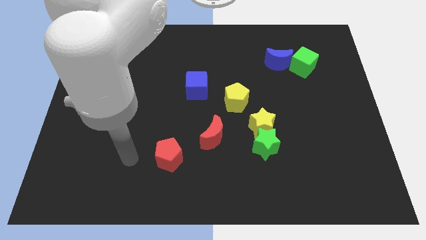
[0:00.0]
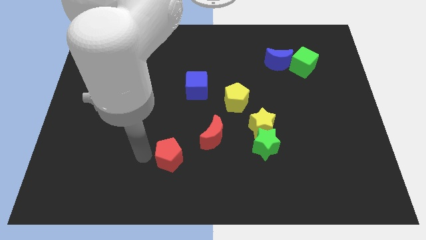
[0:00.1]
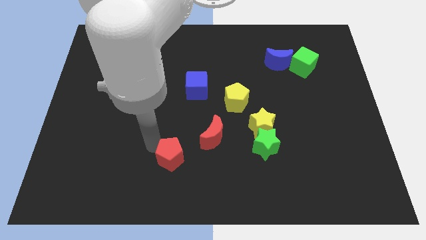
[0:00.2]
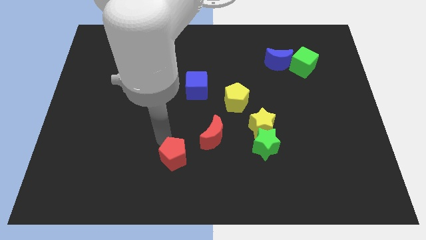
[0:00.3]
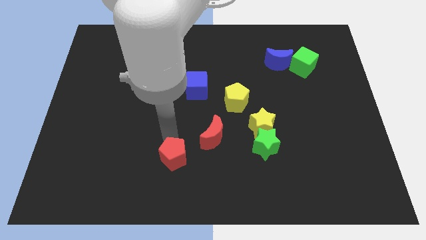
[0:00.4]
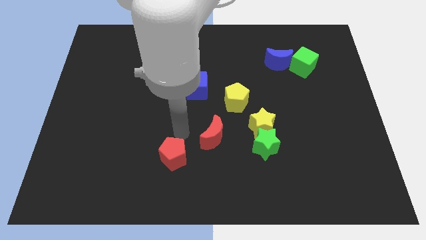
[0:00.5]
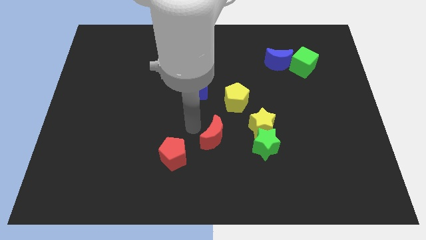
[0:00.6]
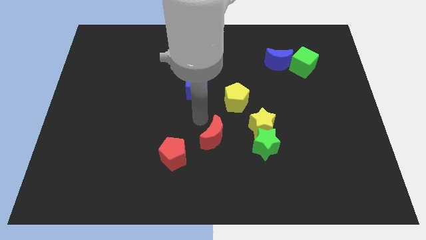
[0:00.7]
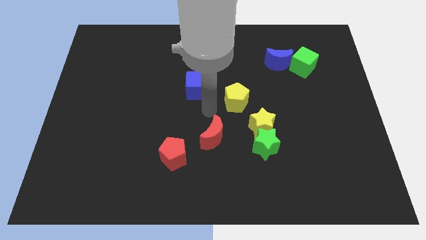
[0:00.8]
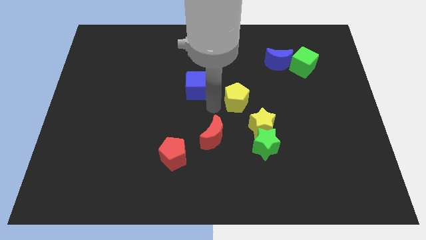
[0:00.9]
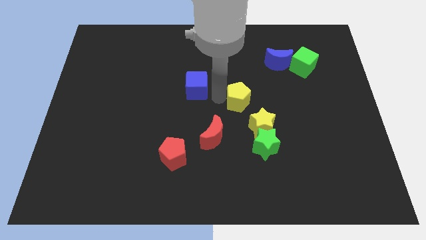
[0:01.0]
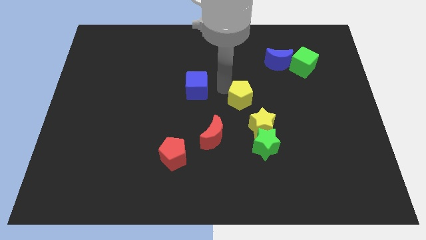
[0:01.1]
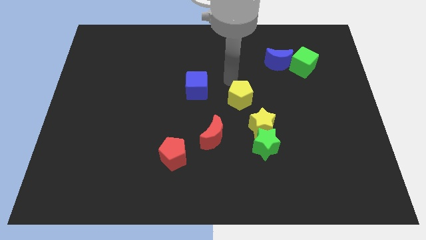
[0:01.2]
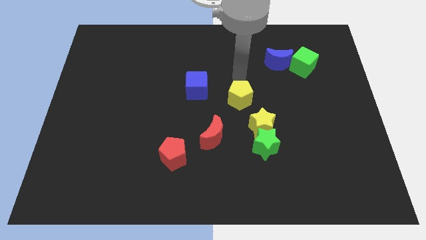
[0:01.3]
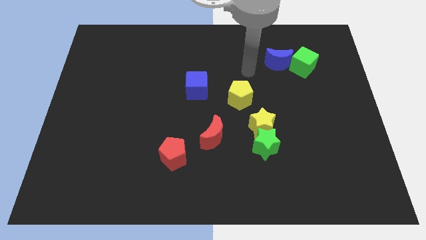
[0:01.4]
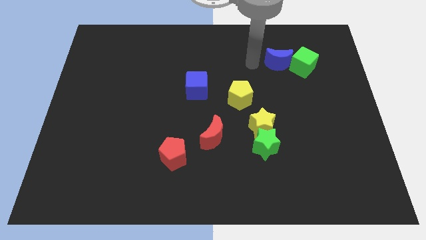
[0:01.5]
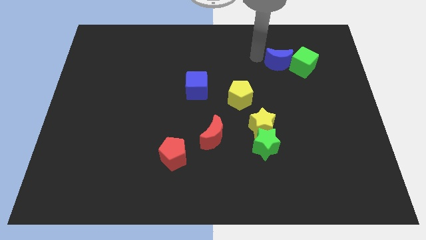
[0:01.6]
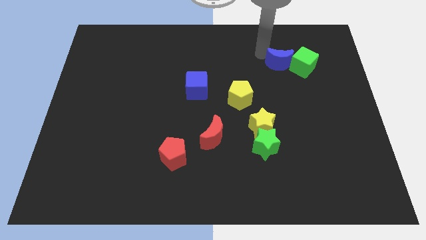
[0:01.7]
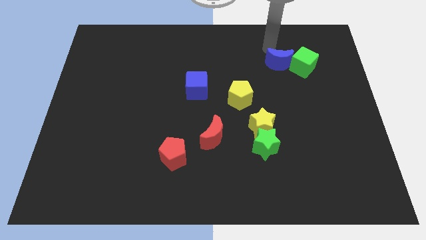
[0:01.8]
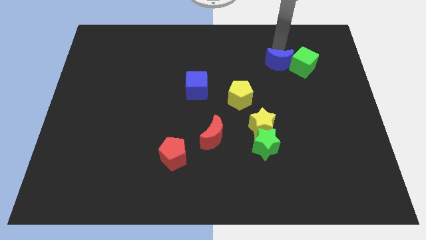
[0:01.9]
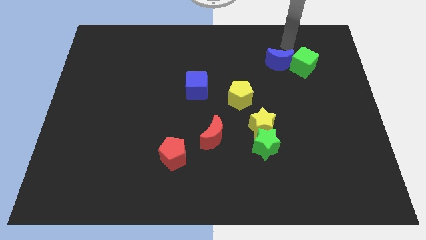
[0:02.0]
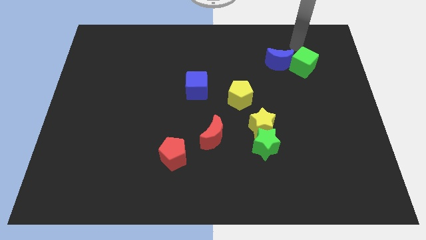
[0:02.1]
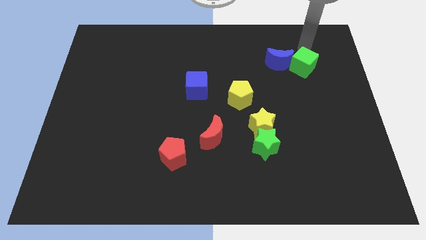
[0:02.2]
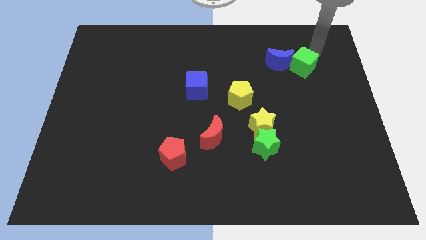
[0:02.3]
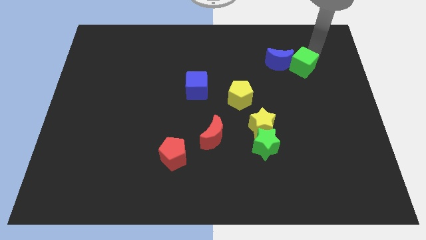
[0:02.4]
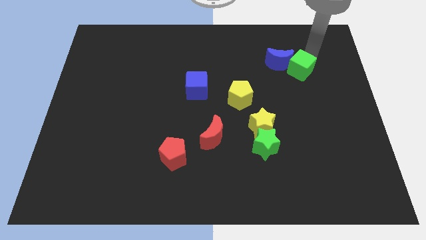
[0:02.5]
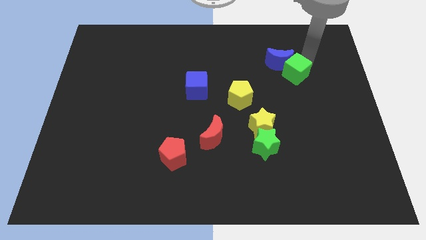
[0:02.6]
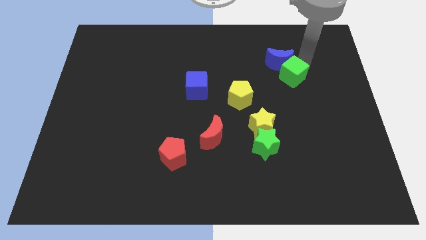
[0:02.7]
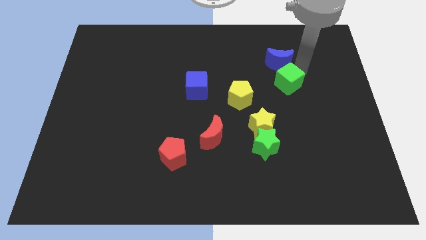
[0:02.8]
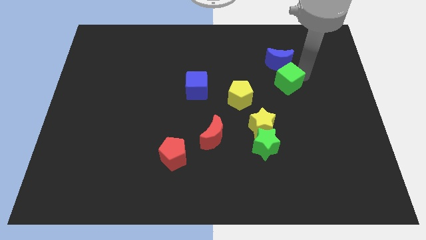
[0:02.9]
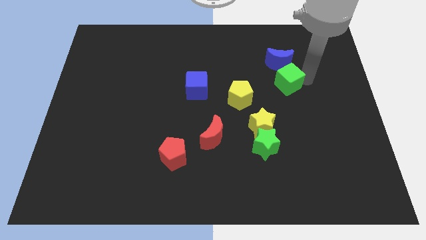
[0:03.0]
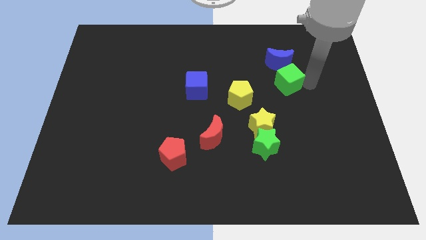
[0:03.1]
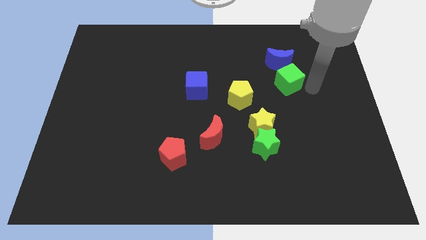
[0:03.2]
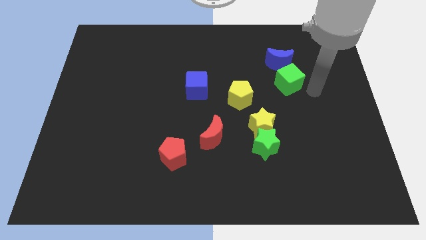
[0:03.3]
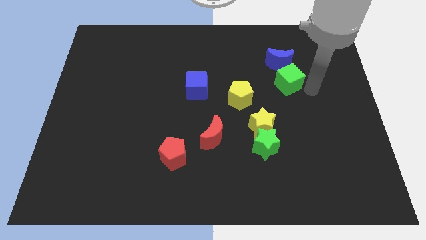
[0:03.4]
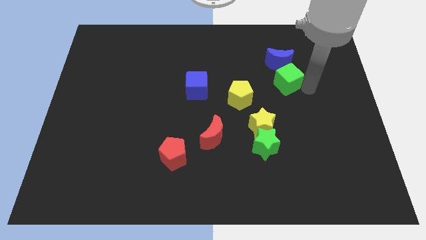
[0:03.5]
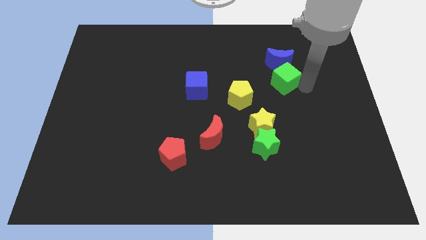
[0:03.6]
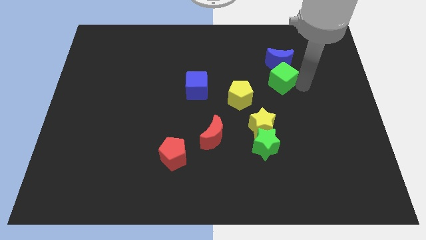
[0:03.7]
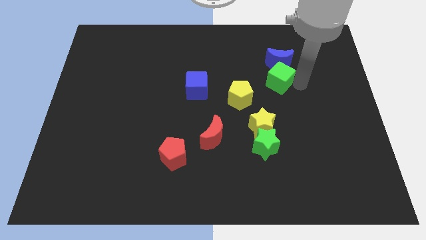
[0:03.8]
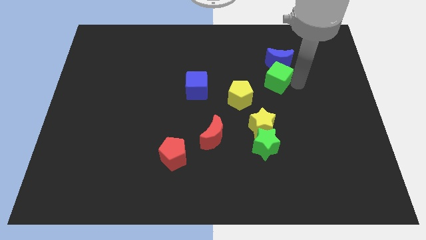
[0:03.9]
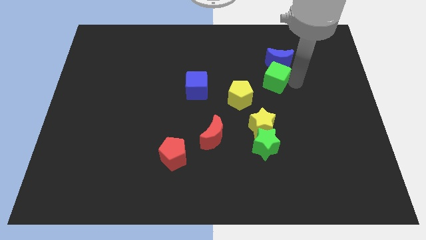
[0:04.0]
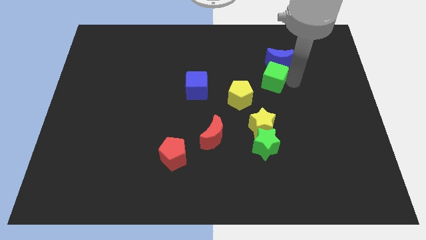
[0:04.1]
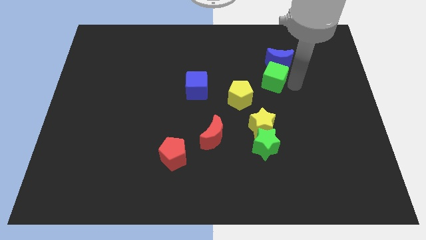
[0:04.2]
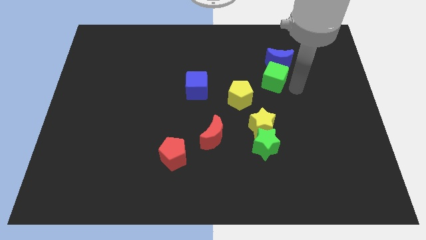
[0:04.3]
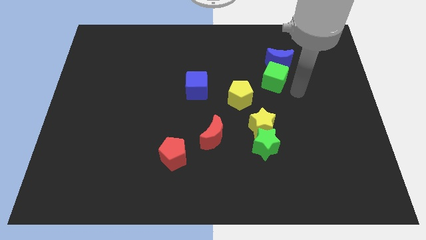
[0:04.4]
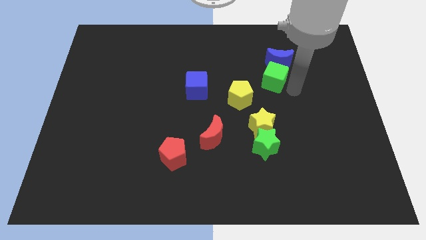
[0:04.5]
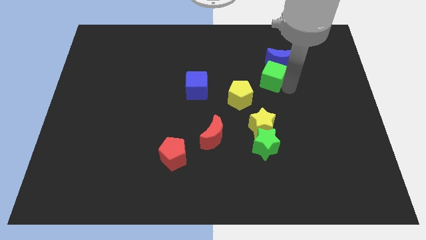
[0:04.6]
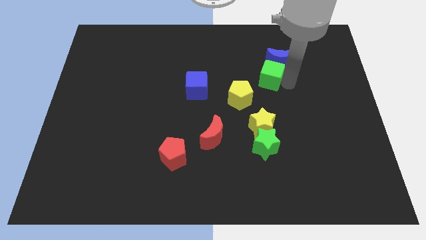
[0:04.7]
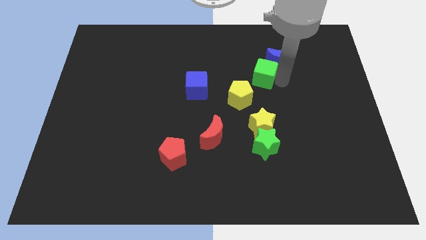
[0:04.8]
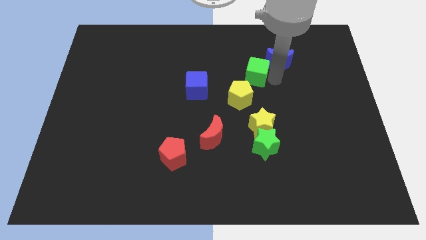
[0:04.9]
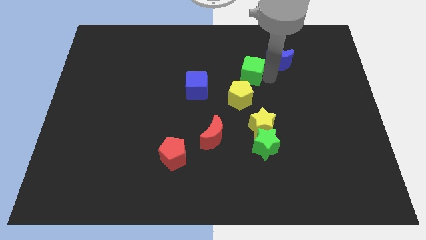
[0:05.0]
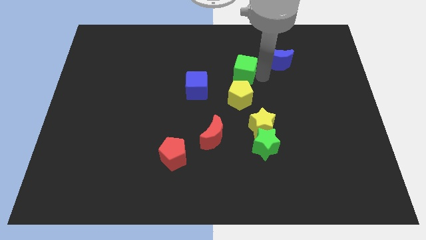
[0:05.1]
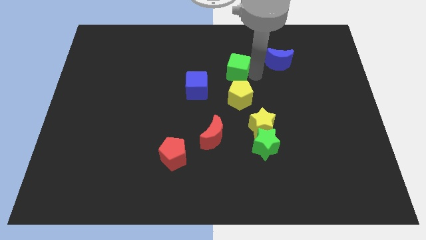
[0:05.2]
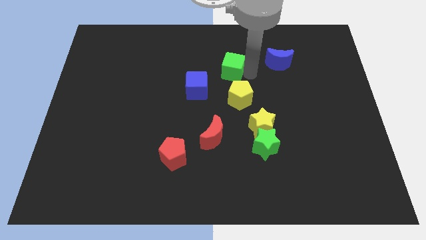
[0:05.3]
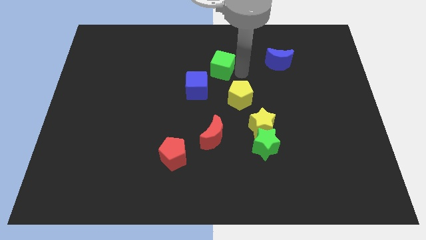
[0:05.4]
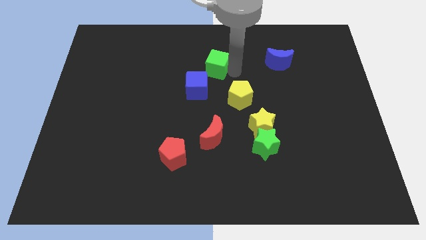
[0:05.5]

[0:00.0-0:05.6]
push the green cube above the blue cube

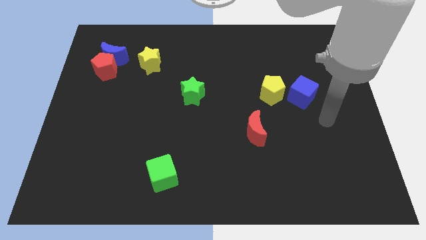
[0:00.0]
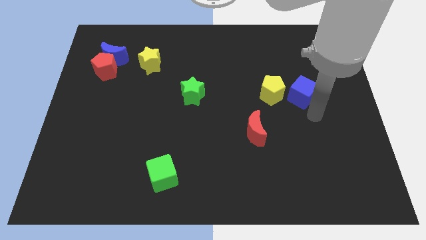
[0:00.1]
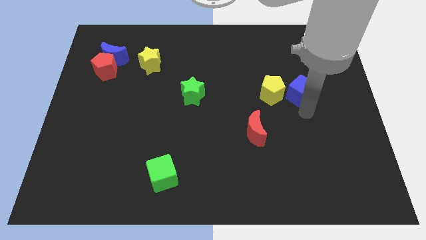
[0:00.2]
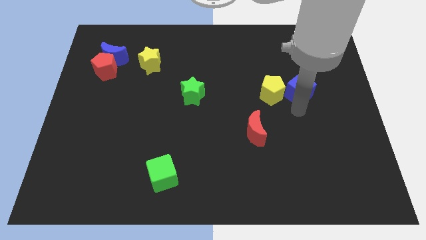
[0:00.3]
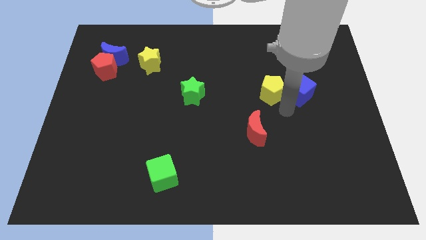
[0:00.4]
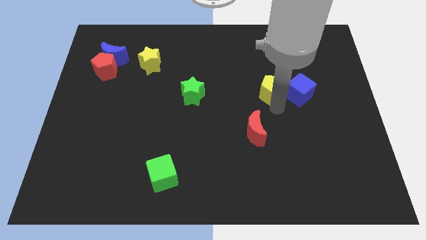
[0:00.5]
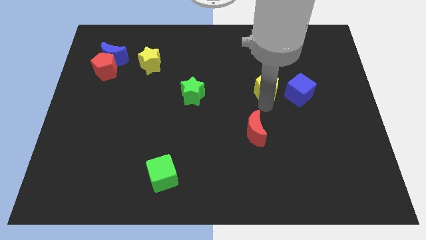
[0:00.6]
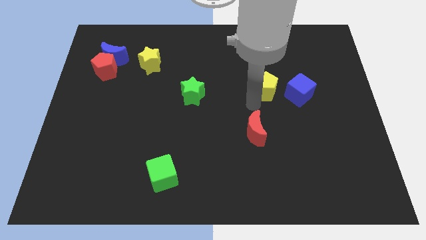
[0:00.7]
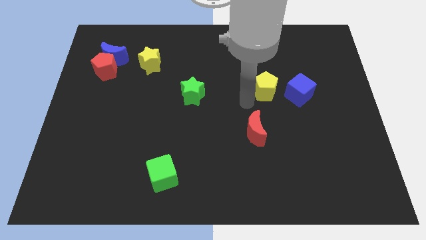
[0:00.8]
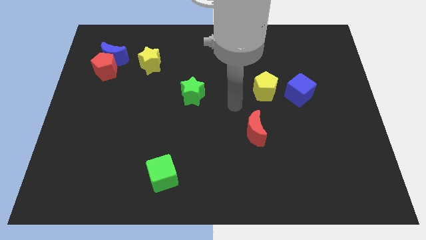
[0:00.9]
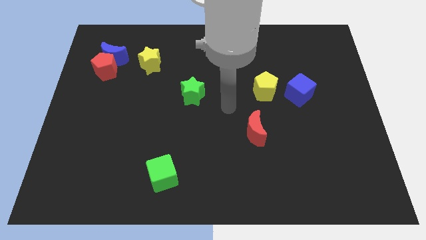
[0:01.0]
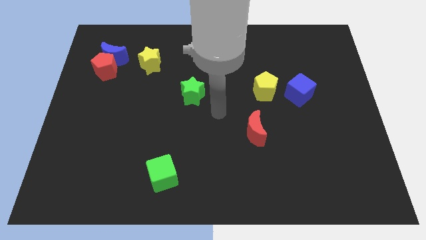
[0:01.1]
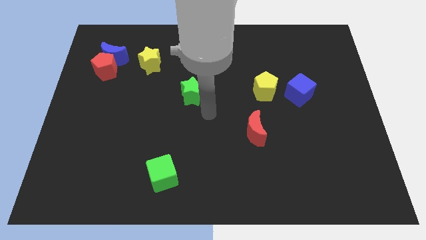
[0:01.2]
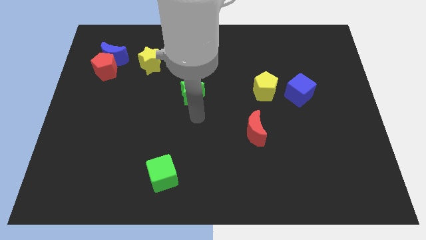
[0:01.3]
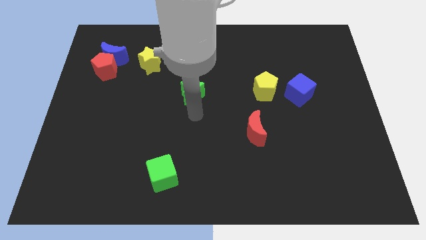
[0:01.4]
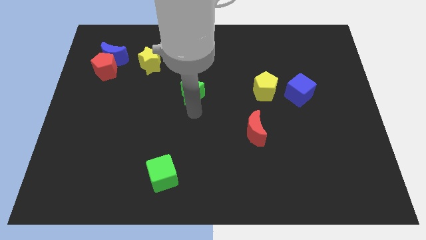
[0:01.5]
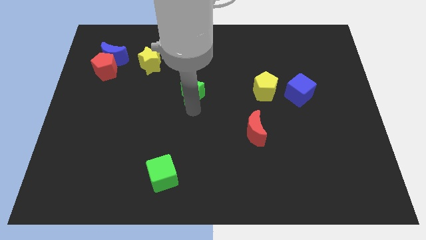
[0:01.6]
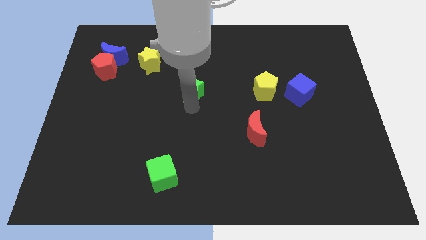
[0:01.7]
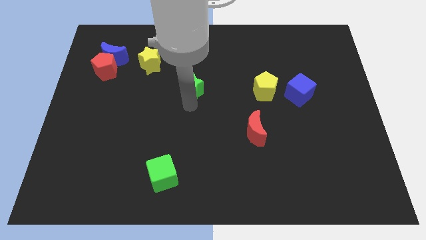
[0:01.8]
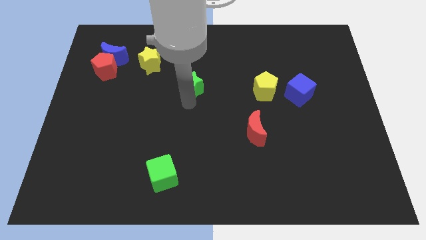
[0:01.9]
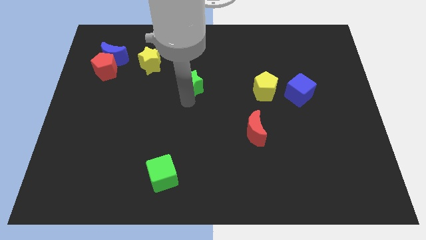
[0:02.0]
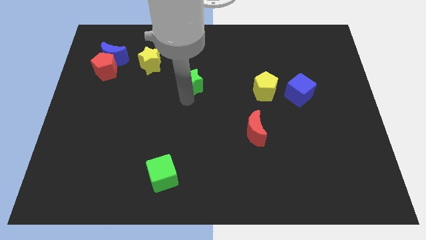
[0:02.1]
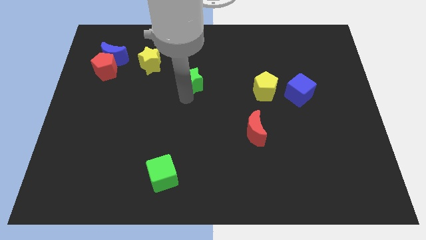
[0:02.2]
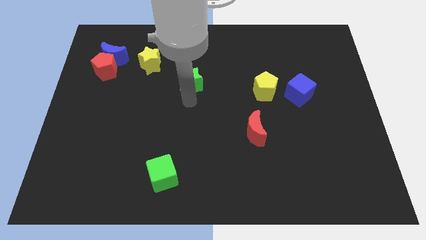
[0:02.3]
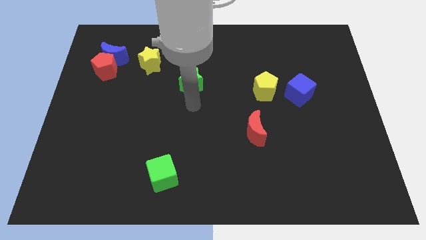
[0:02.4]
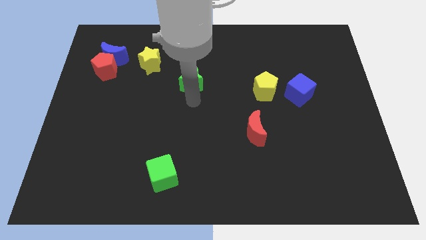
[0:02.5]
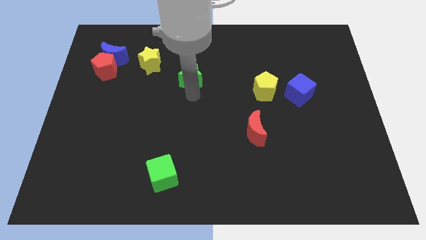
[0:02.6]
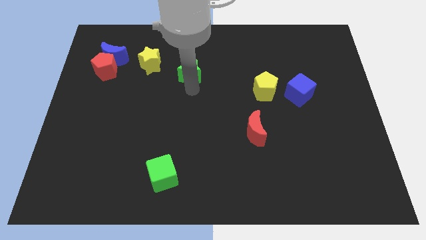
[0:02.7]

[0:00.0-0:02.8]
move the green star to the right side of the yellow star
